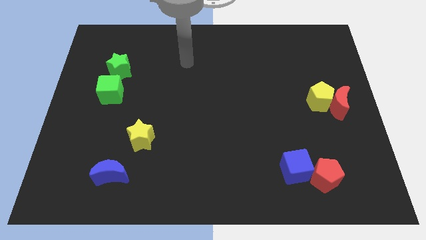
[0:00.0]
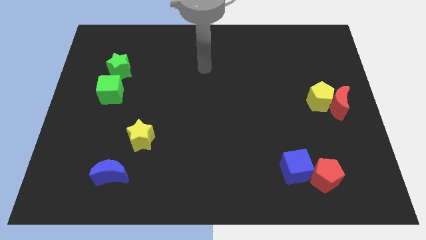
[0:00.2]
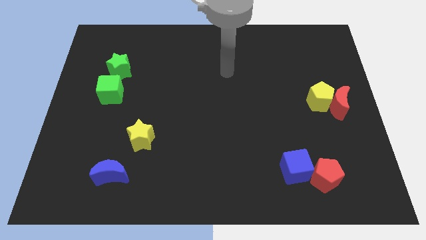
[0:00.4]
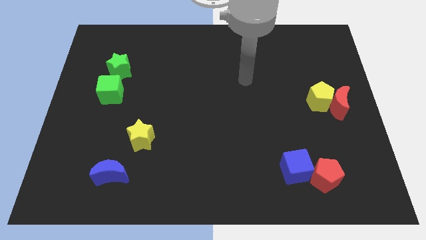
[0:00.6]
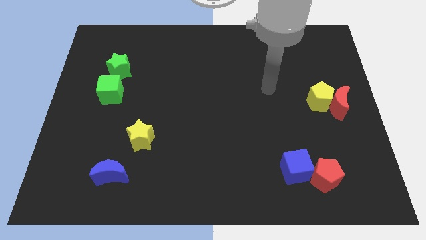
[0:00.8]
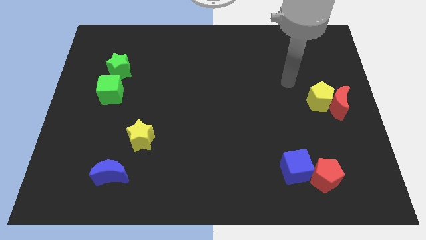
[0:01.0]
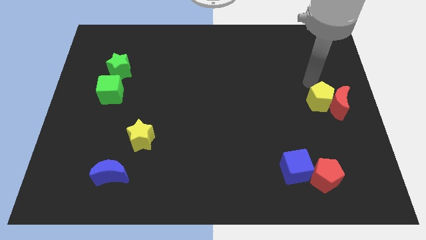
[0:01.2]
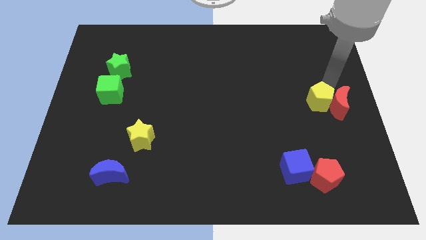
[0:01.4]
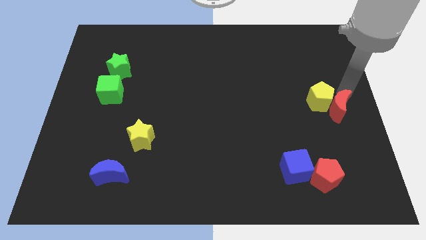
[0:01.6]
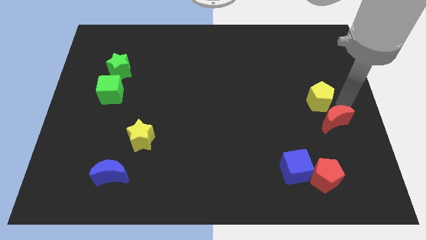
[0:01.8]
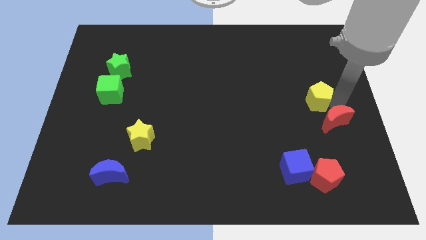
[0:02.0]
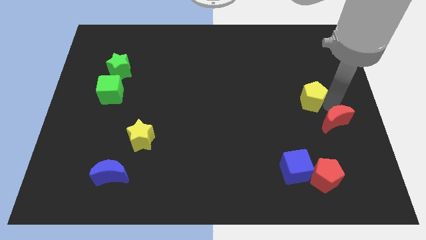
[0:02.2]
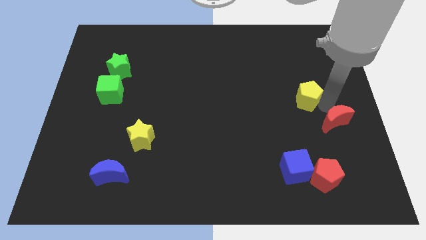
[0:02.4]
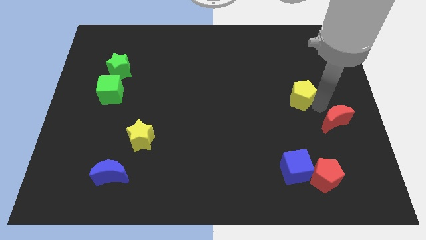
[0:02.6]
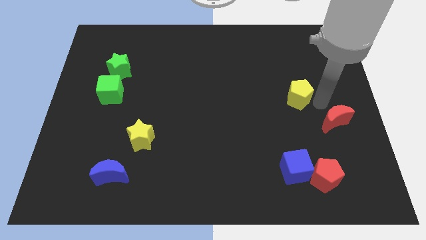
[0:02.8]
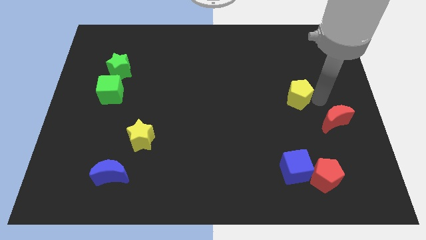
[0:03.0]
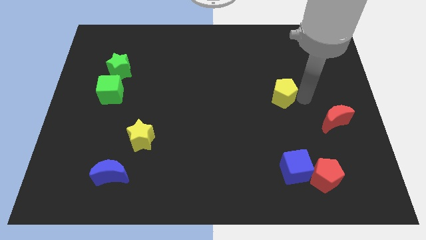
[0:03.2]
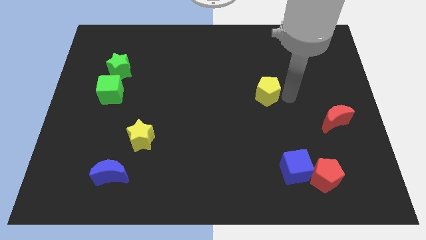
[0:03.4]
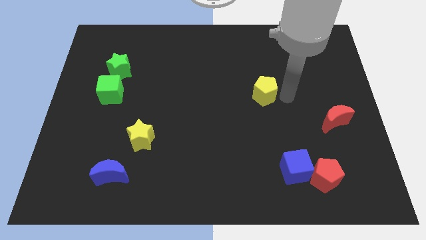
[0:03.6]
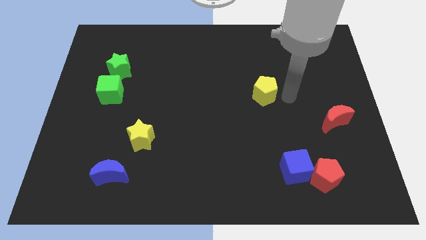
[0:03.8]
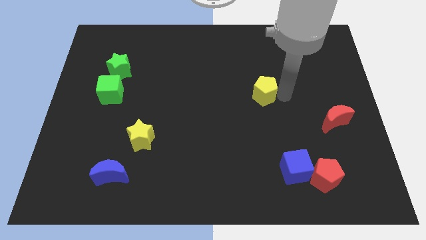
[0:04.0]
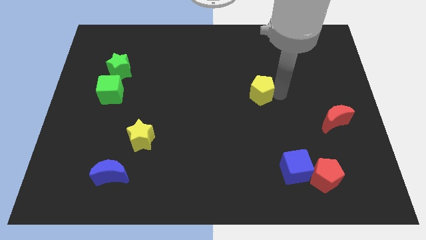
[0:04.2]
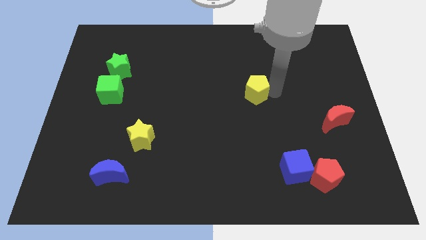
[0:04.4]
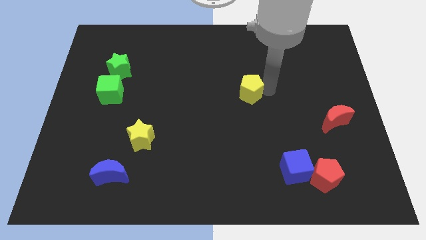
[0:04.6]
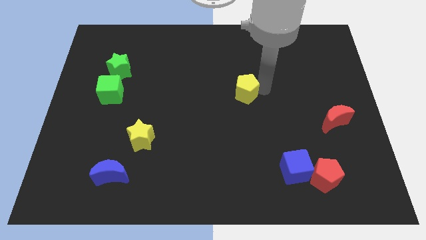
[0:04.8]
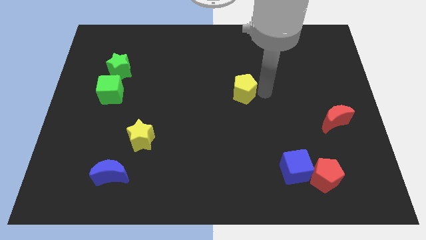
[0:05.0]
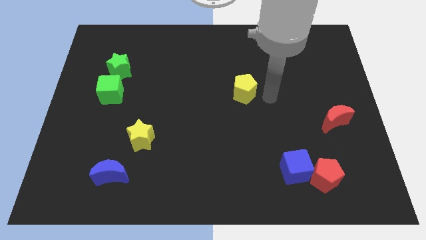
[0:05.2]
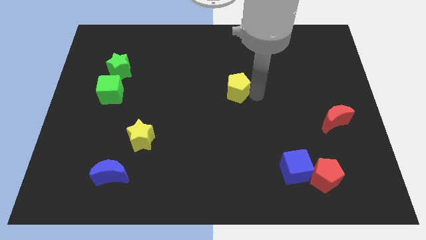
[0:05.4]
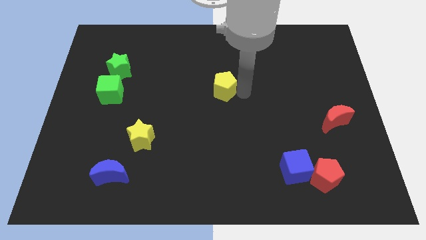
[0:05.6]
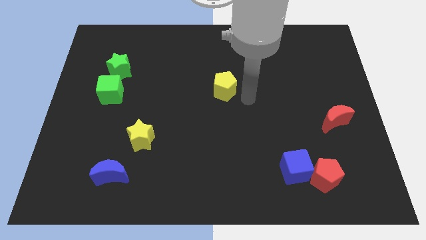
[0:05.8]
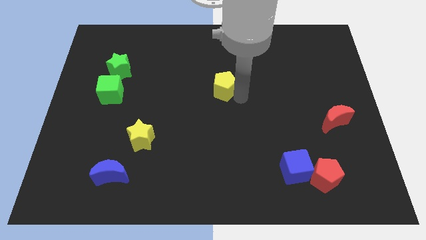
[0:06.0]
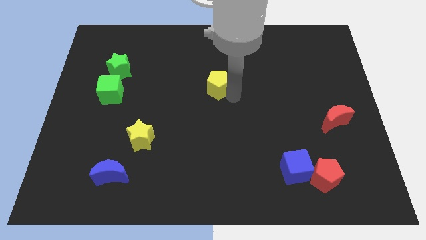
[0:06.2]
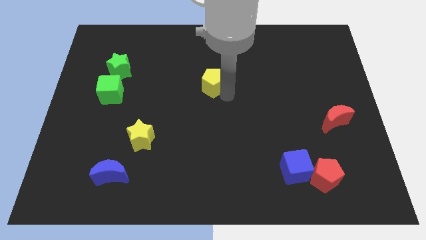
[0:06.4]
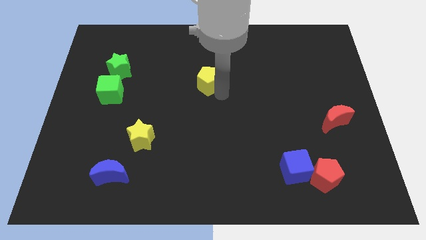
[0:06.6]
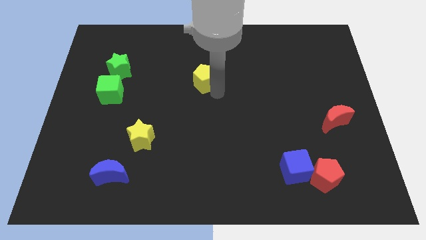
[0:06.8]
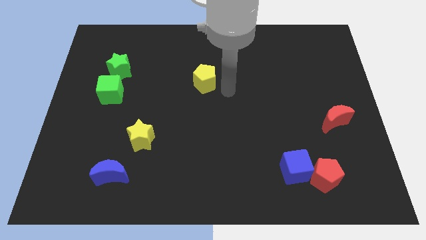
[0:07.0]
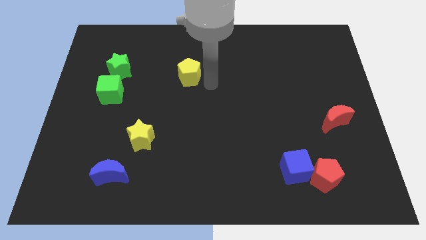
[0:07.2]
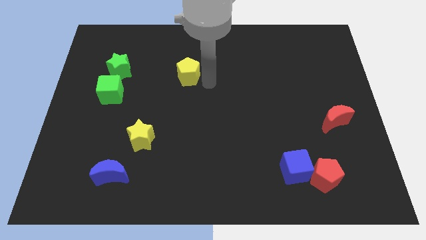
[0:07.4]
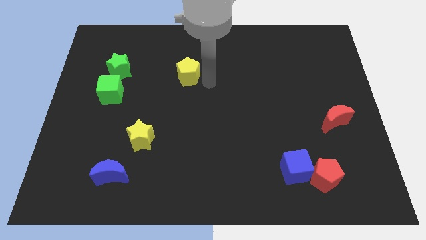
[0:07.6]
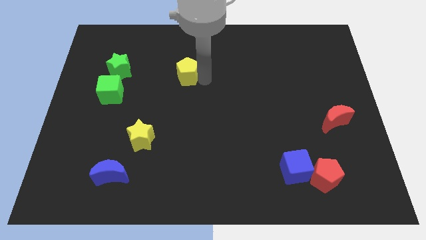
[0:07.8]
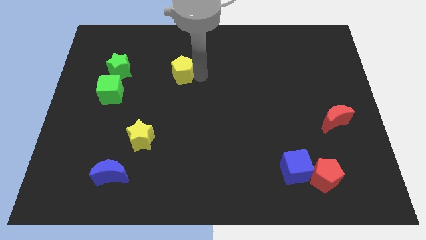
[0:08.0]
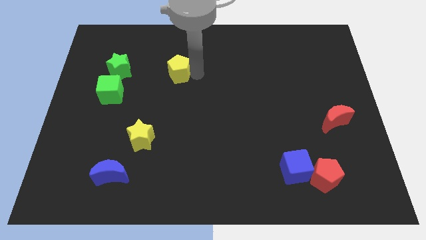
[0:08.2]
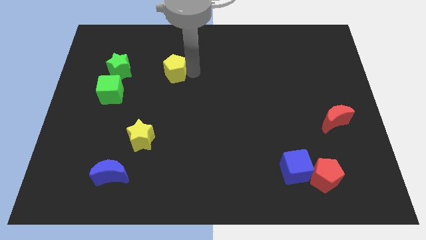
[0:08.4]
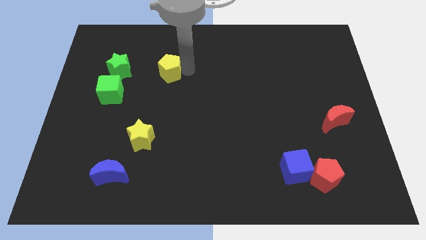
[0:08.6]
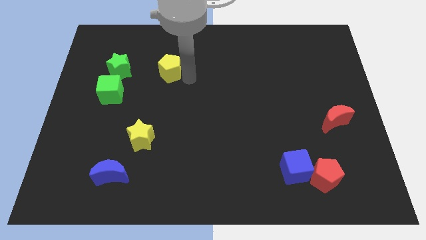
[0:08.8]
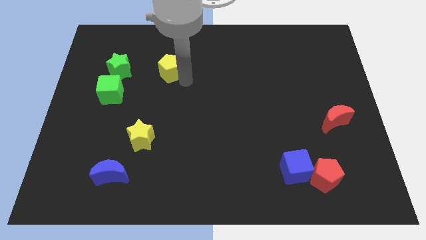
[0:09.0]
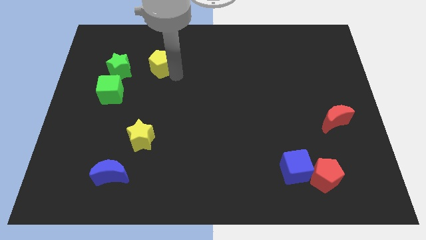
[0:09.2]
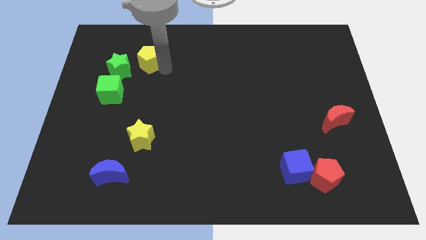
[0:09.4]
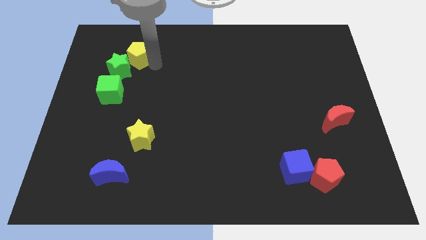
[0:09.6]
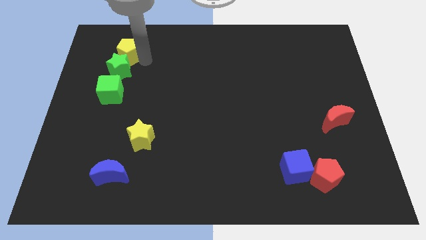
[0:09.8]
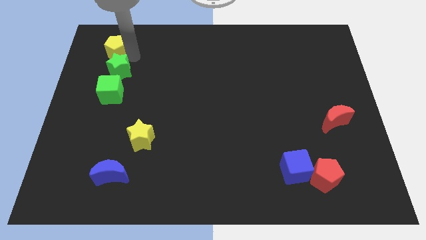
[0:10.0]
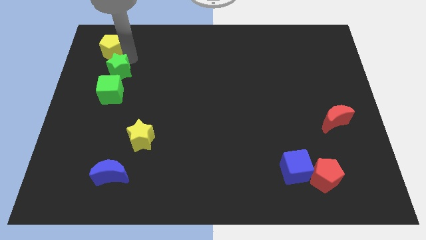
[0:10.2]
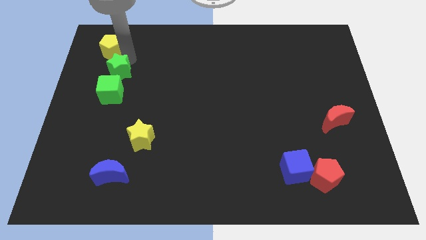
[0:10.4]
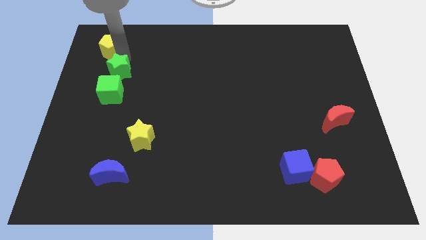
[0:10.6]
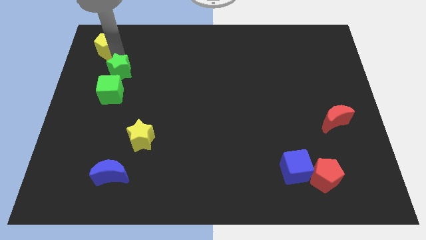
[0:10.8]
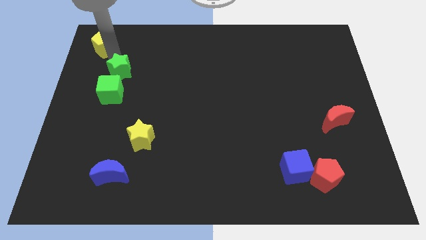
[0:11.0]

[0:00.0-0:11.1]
slide the yellow pentagon to the top left
